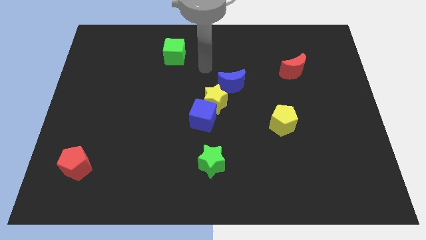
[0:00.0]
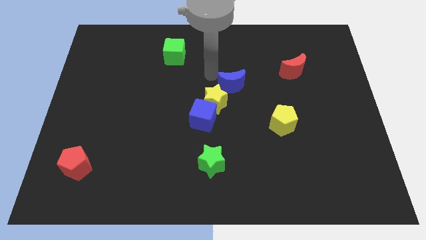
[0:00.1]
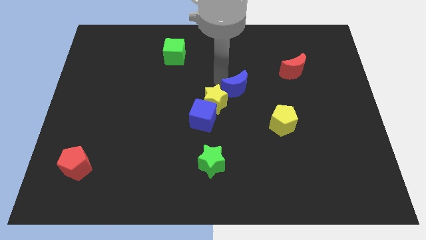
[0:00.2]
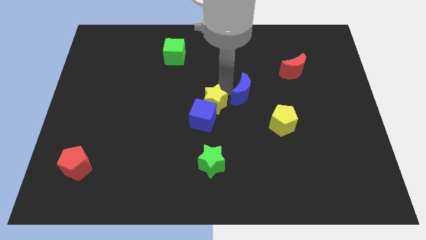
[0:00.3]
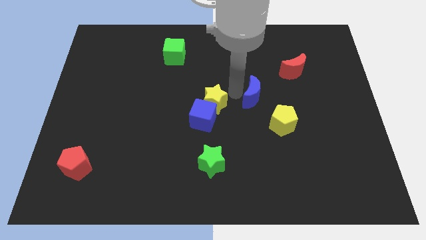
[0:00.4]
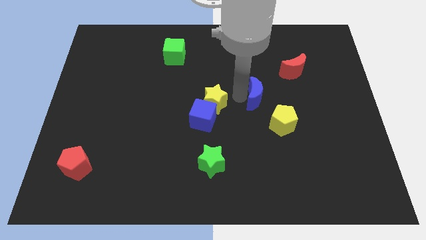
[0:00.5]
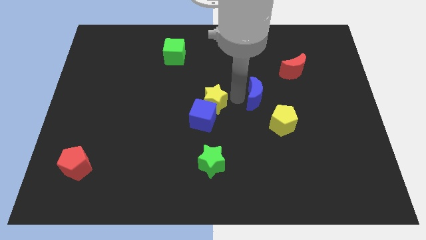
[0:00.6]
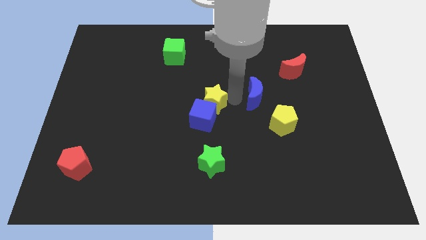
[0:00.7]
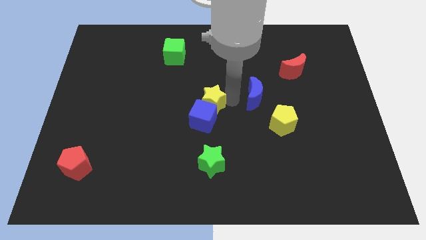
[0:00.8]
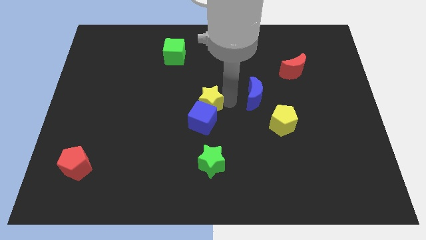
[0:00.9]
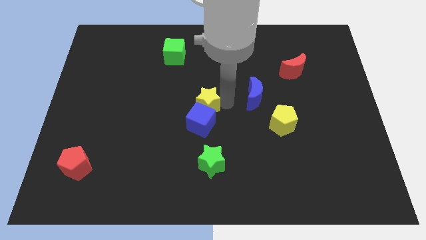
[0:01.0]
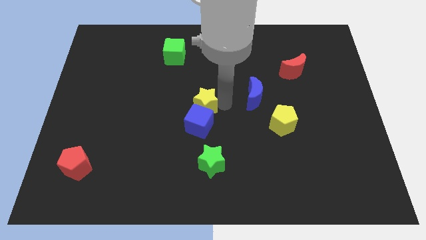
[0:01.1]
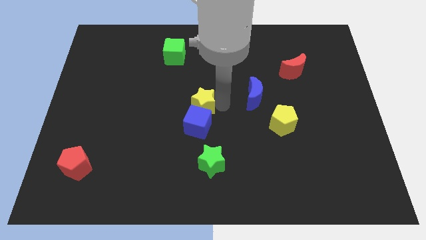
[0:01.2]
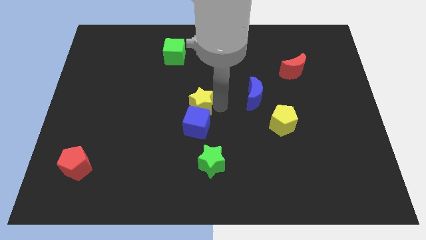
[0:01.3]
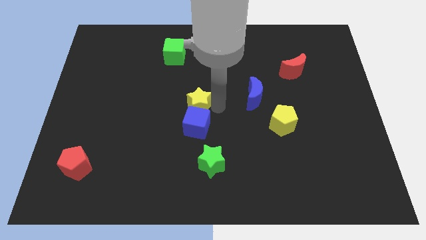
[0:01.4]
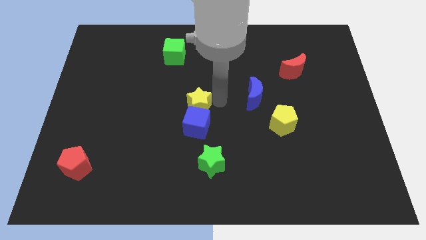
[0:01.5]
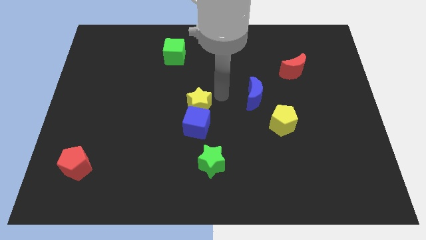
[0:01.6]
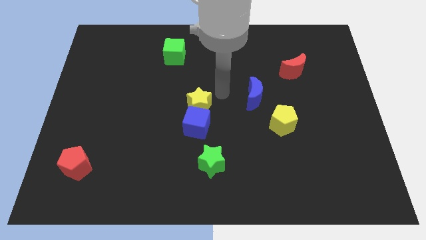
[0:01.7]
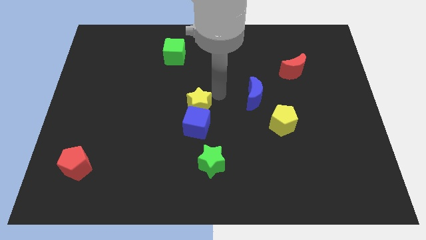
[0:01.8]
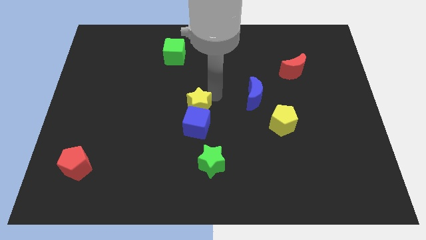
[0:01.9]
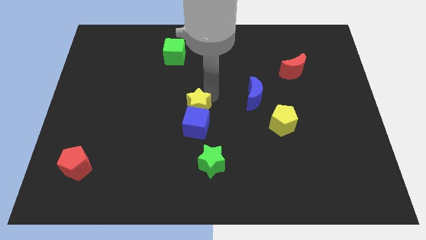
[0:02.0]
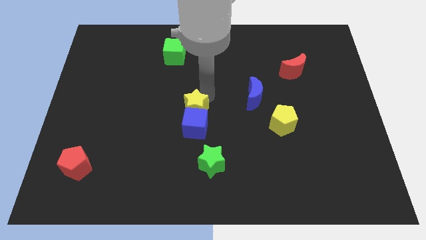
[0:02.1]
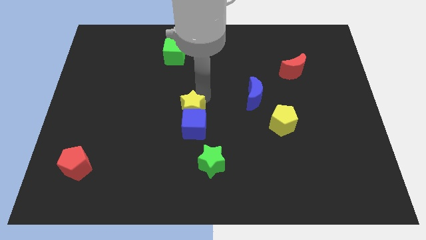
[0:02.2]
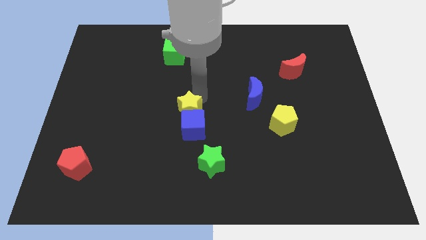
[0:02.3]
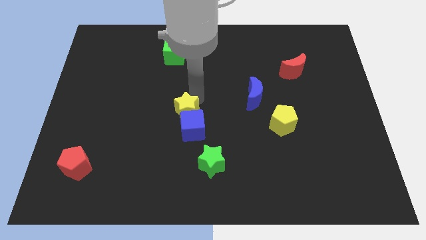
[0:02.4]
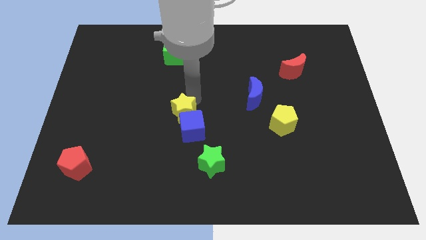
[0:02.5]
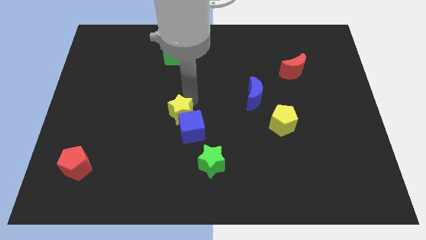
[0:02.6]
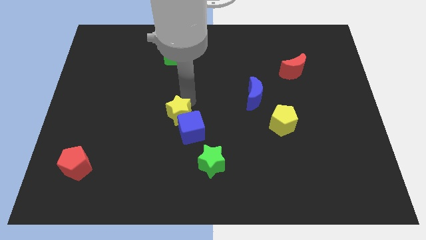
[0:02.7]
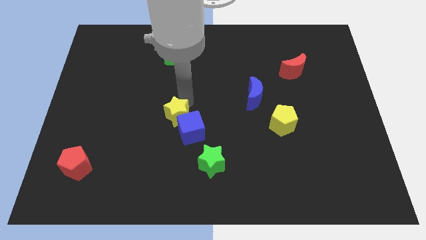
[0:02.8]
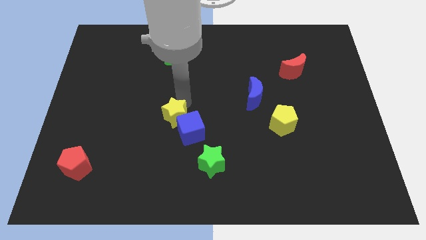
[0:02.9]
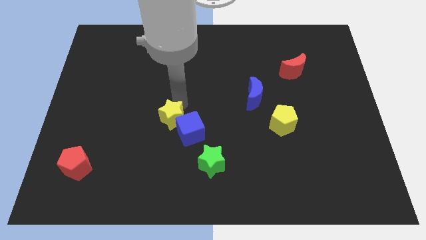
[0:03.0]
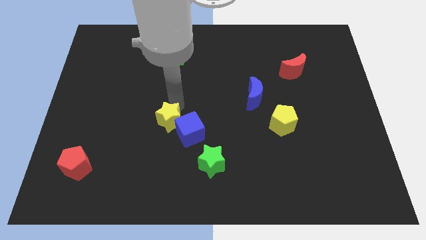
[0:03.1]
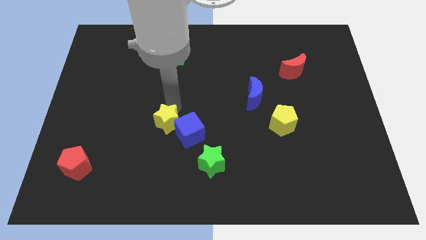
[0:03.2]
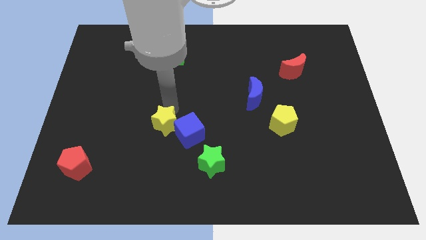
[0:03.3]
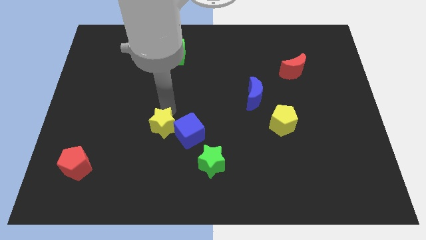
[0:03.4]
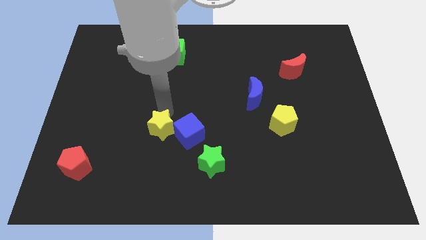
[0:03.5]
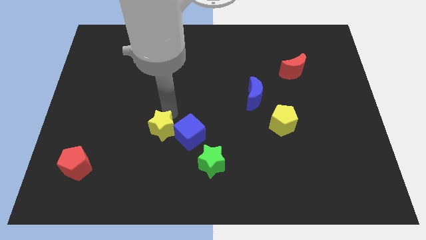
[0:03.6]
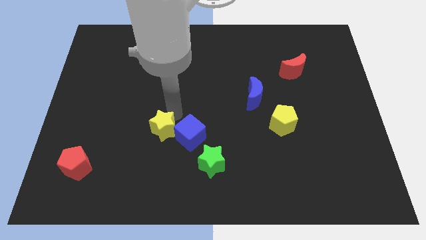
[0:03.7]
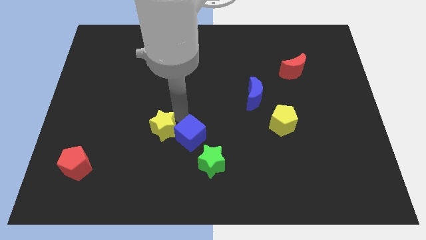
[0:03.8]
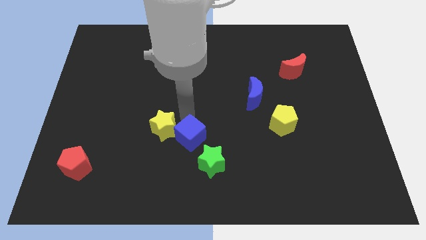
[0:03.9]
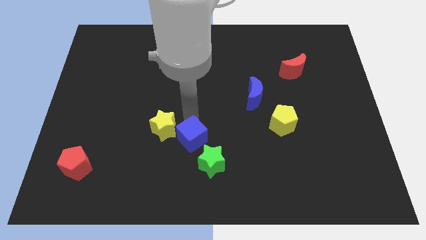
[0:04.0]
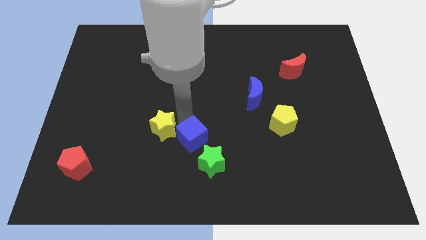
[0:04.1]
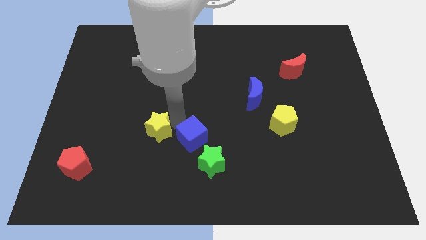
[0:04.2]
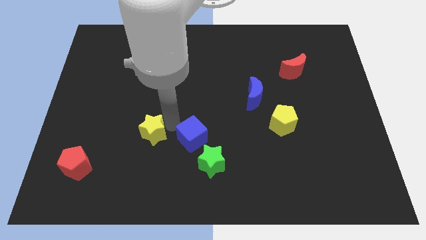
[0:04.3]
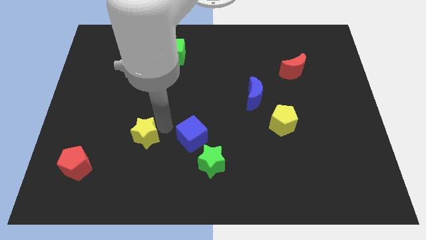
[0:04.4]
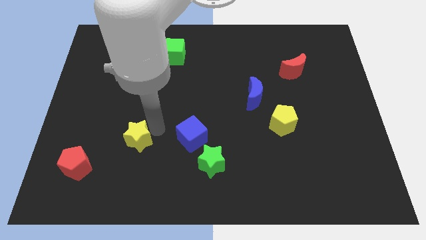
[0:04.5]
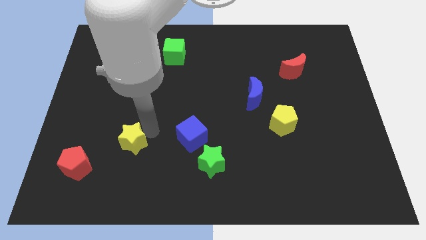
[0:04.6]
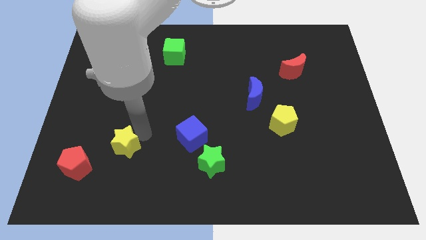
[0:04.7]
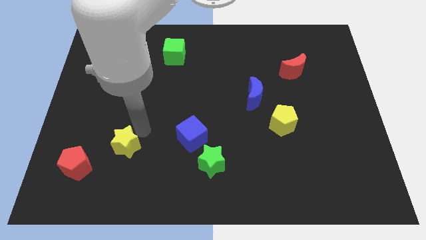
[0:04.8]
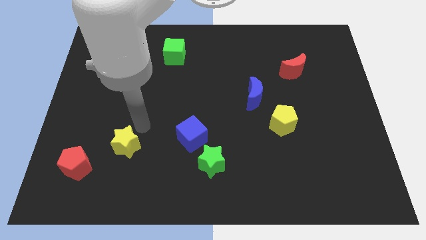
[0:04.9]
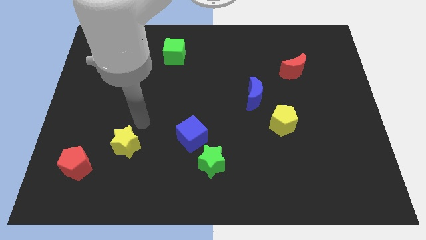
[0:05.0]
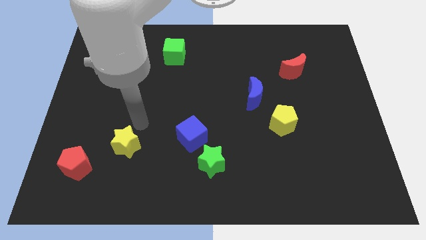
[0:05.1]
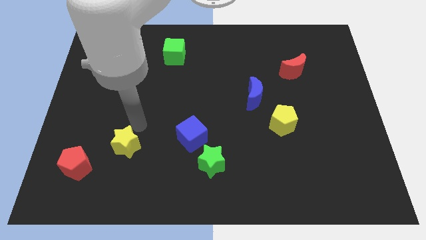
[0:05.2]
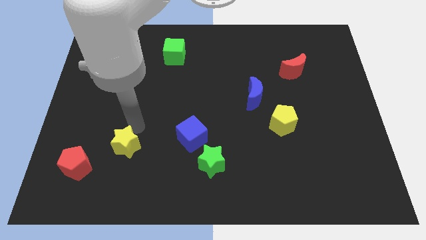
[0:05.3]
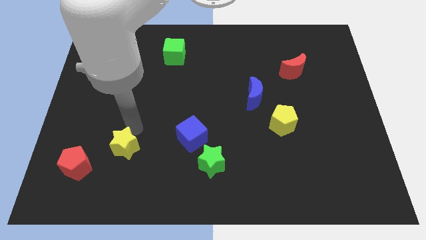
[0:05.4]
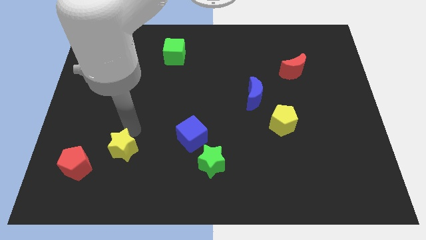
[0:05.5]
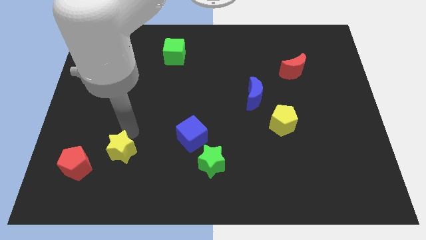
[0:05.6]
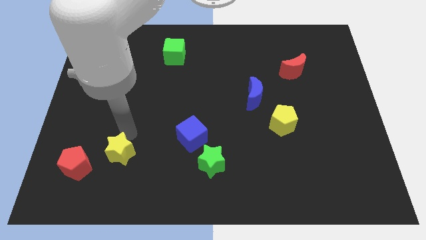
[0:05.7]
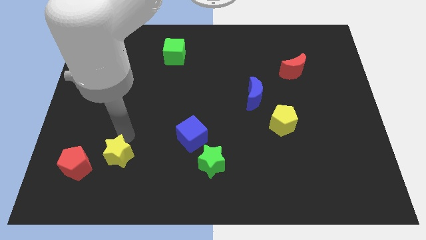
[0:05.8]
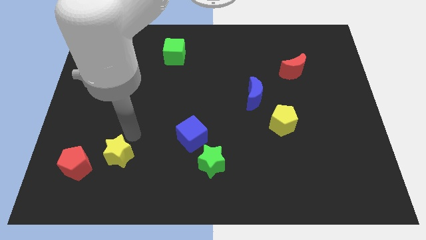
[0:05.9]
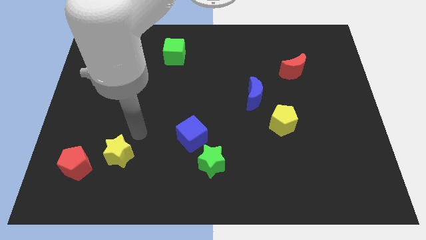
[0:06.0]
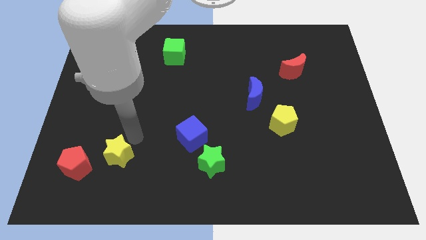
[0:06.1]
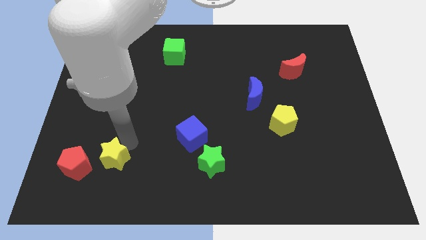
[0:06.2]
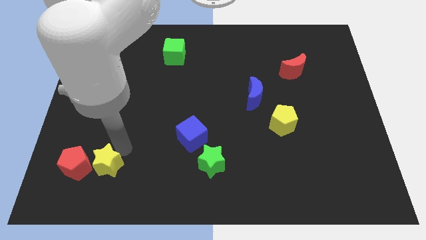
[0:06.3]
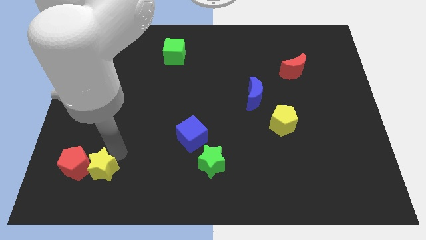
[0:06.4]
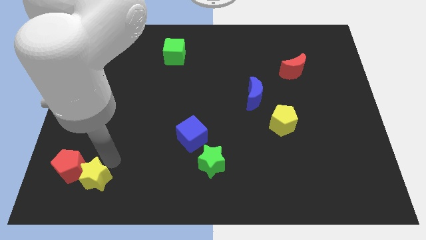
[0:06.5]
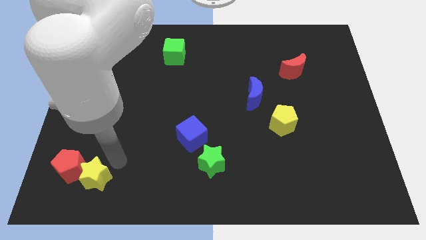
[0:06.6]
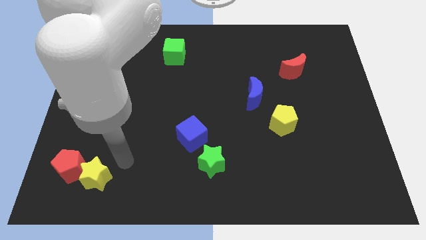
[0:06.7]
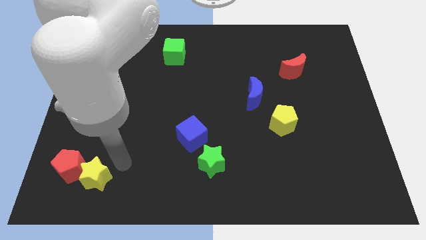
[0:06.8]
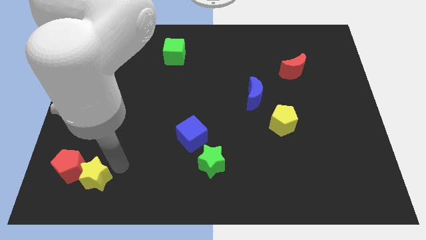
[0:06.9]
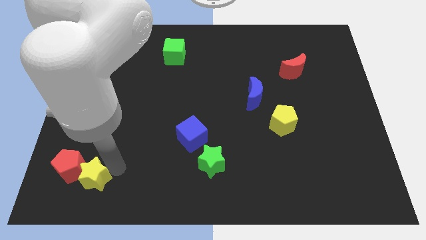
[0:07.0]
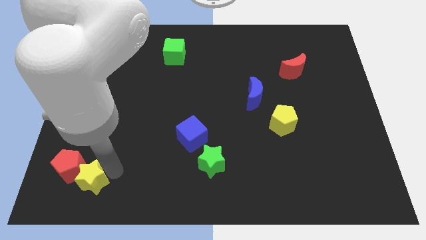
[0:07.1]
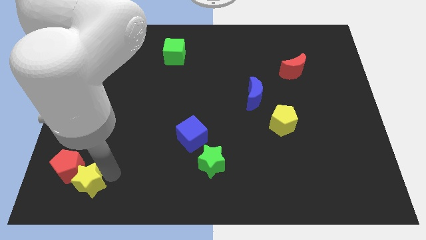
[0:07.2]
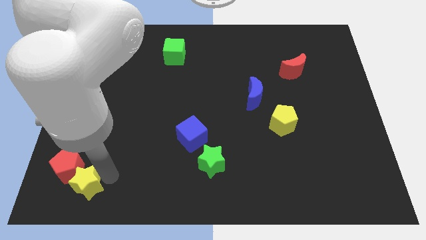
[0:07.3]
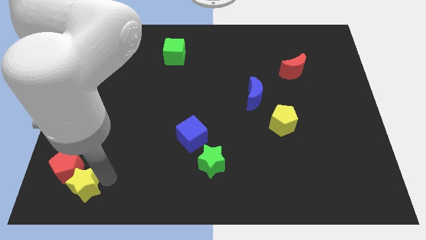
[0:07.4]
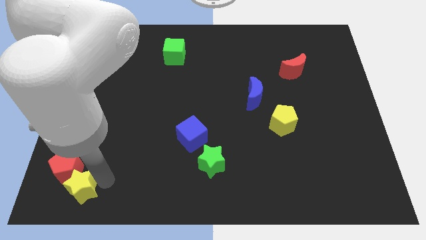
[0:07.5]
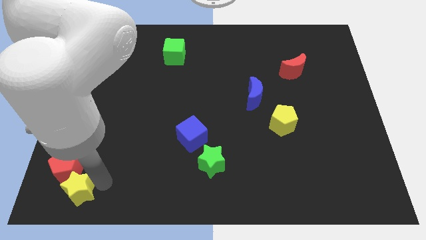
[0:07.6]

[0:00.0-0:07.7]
move the yellow star to the lower left corner
